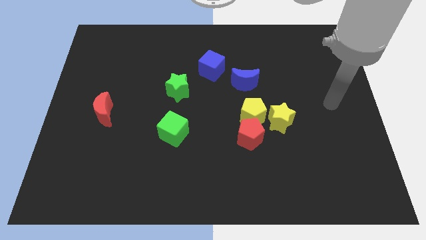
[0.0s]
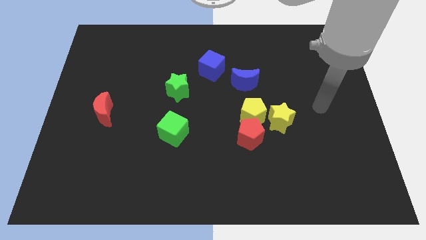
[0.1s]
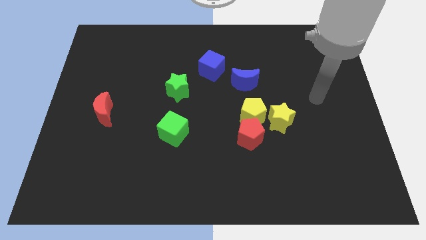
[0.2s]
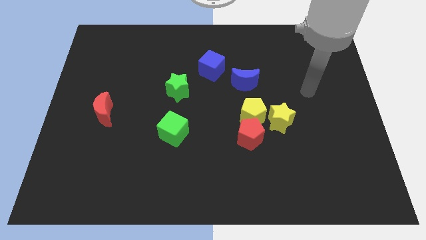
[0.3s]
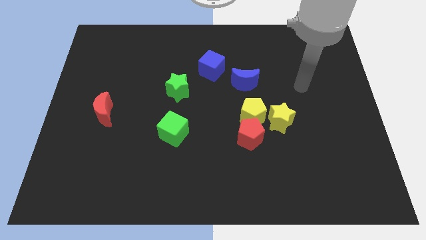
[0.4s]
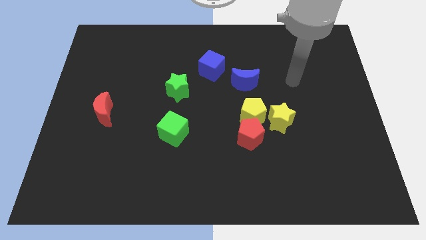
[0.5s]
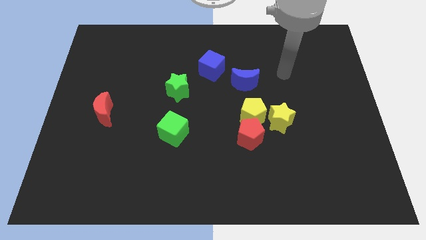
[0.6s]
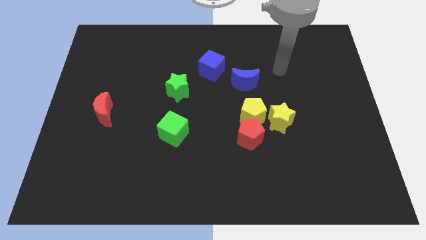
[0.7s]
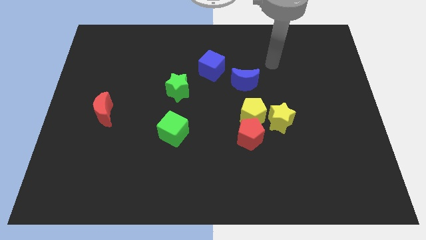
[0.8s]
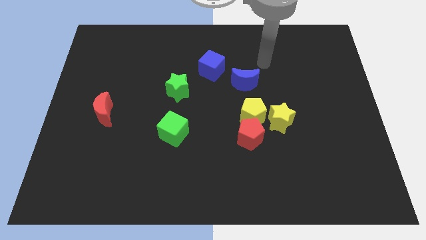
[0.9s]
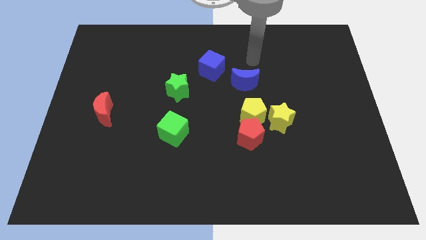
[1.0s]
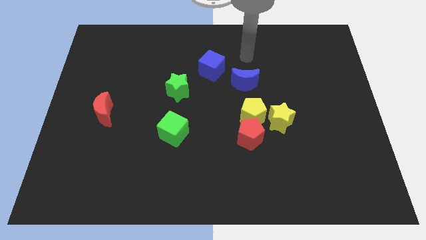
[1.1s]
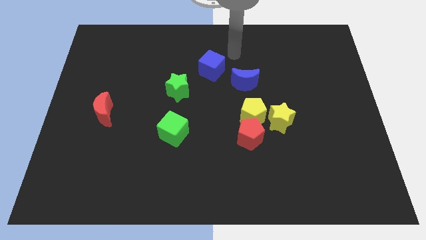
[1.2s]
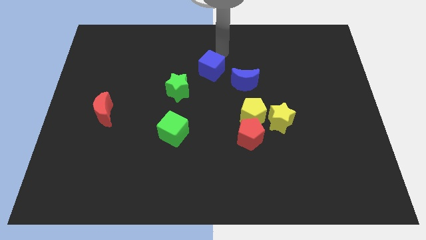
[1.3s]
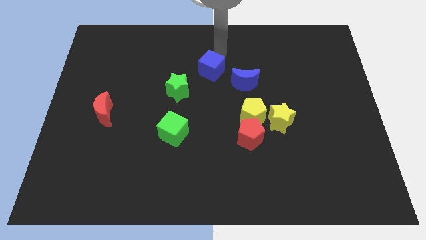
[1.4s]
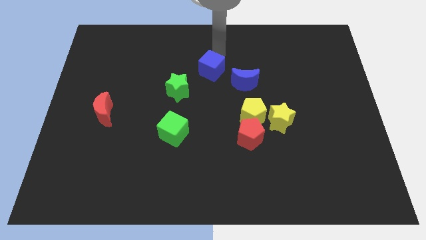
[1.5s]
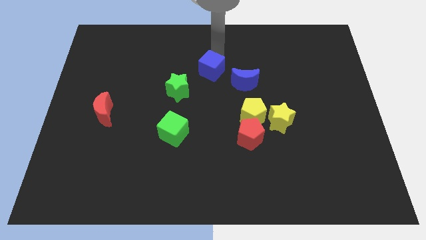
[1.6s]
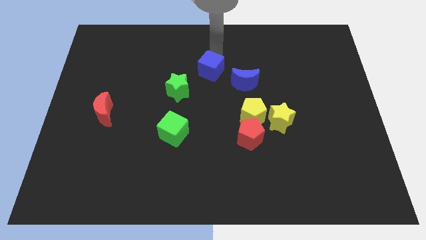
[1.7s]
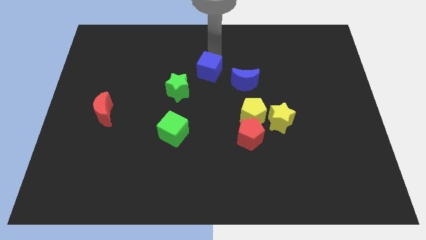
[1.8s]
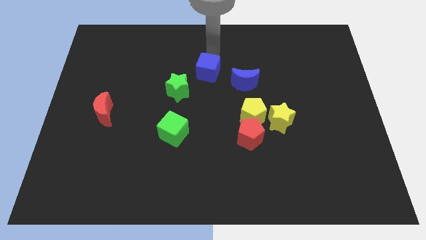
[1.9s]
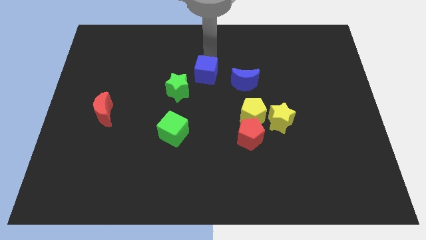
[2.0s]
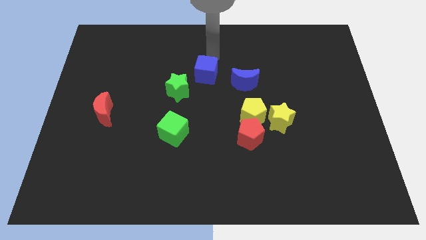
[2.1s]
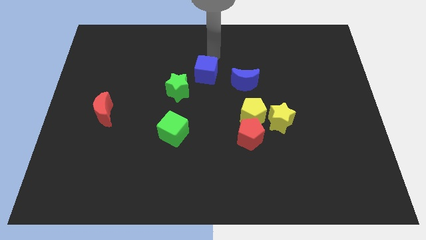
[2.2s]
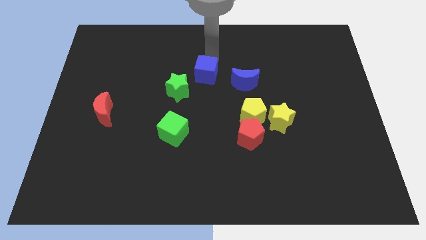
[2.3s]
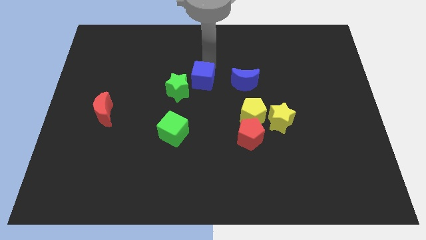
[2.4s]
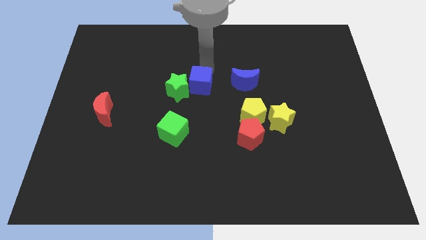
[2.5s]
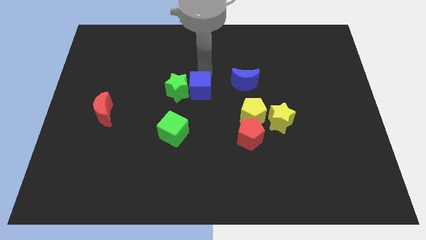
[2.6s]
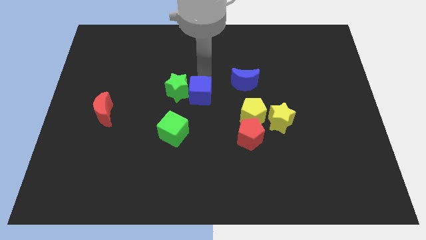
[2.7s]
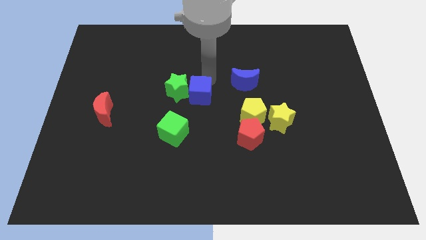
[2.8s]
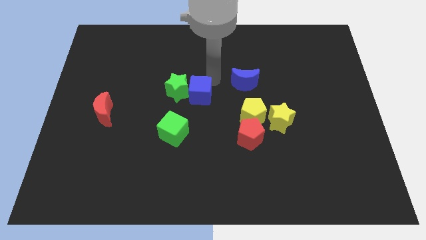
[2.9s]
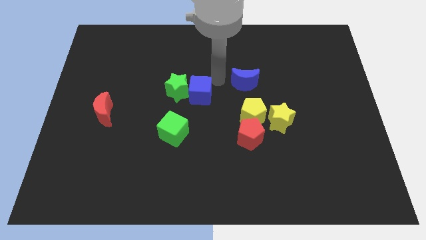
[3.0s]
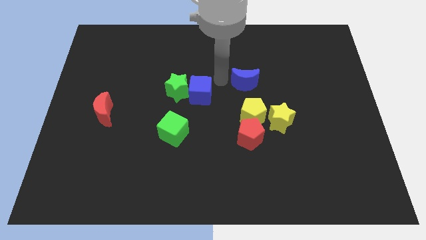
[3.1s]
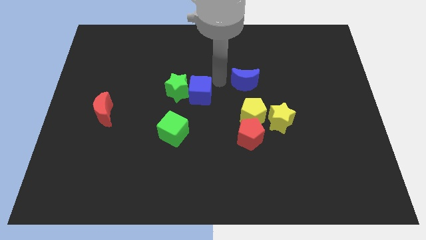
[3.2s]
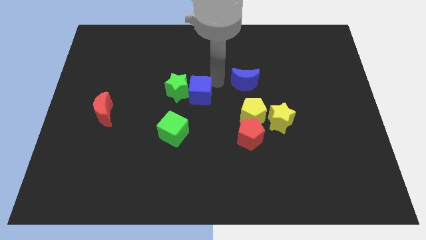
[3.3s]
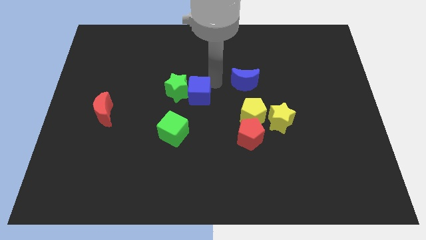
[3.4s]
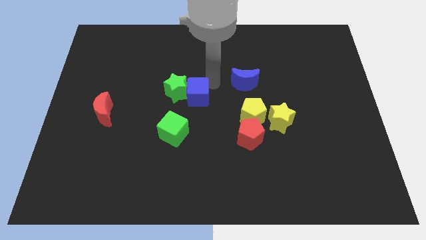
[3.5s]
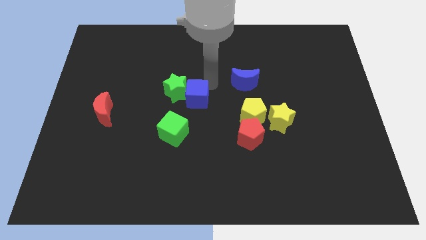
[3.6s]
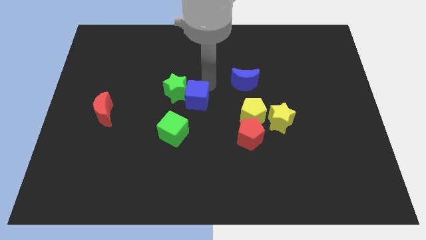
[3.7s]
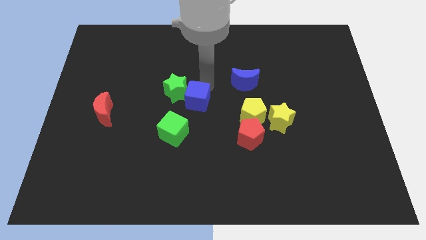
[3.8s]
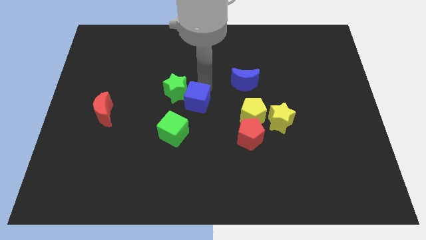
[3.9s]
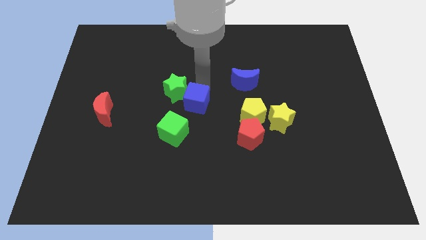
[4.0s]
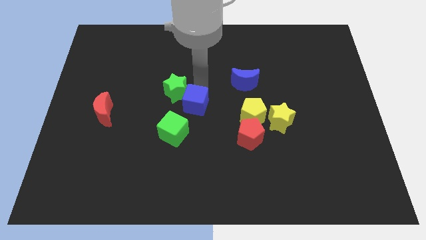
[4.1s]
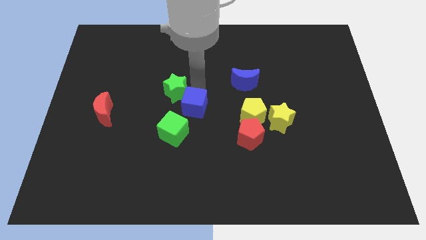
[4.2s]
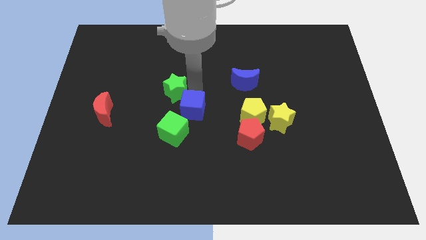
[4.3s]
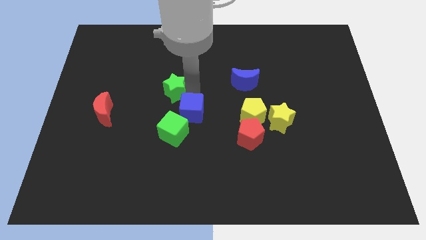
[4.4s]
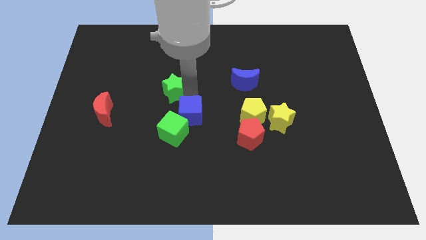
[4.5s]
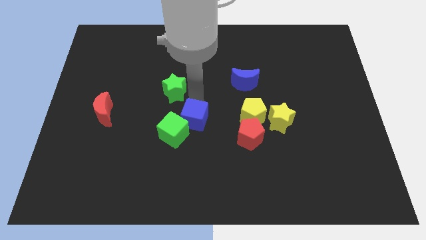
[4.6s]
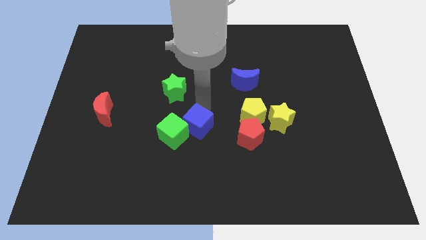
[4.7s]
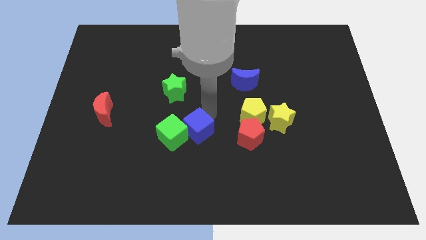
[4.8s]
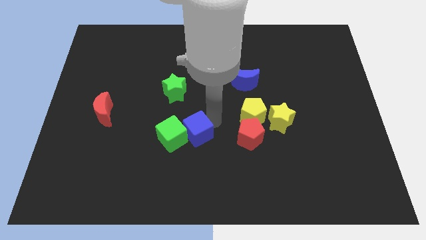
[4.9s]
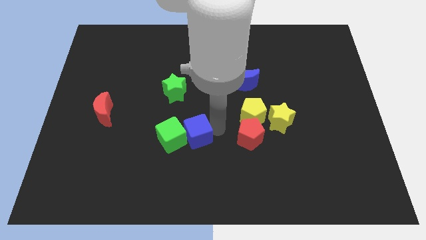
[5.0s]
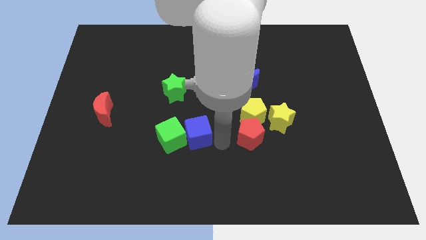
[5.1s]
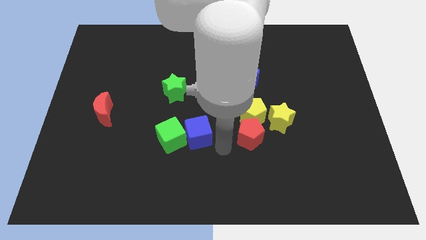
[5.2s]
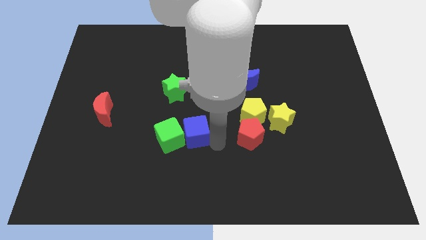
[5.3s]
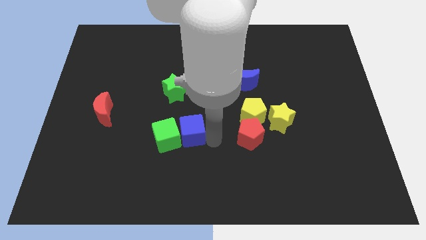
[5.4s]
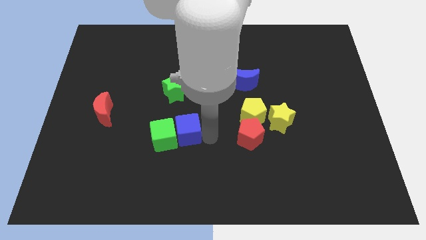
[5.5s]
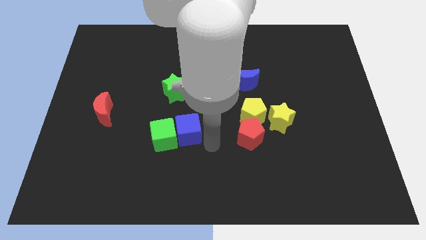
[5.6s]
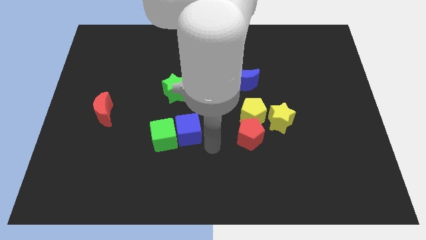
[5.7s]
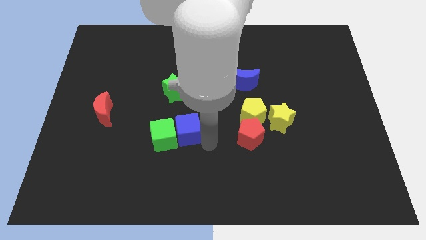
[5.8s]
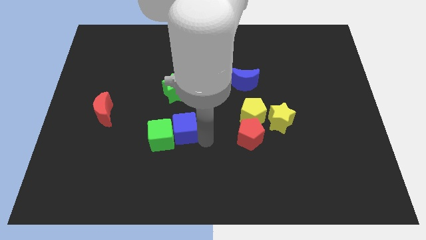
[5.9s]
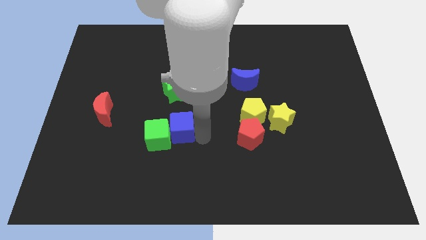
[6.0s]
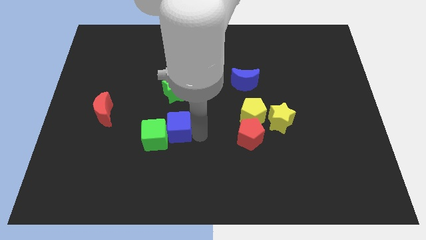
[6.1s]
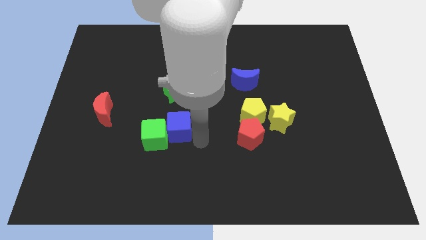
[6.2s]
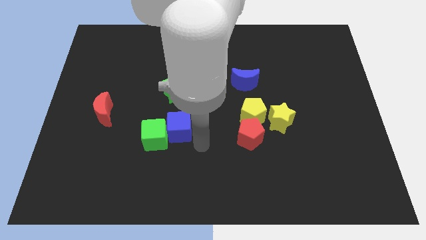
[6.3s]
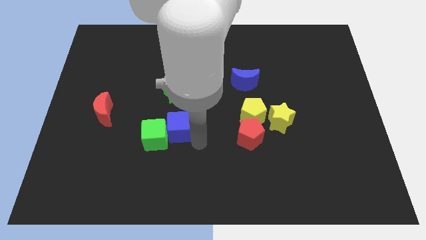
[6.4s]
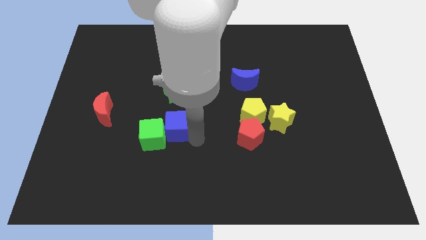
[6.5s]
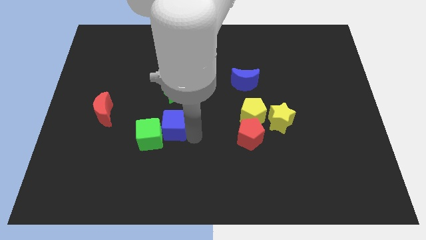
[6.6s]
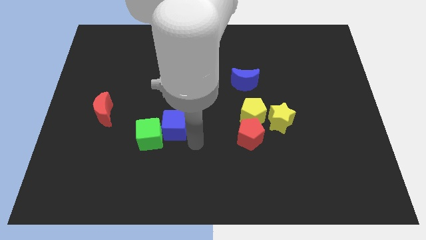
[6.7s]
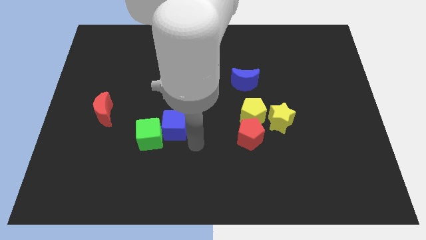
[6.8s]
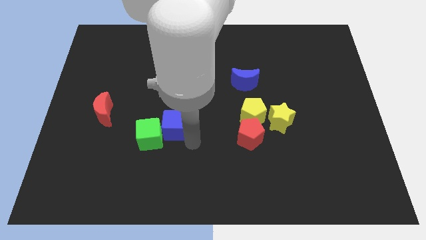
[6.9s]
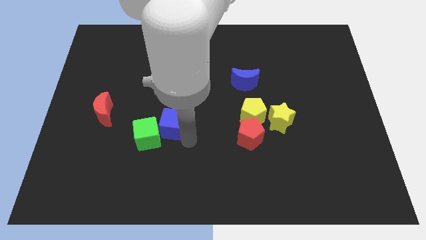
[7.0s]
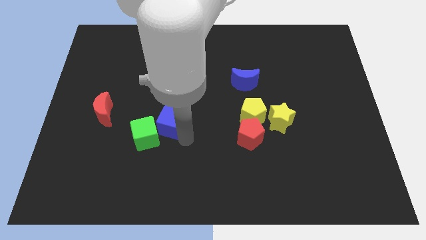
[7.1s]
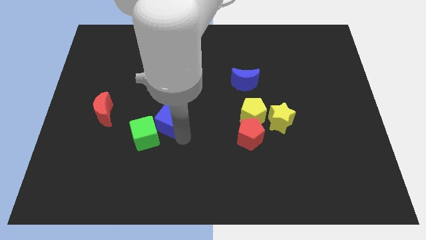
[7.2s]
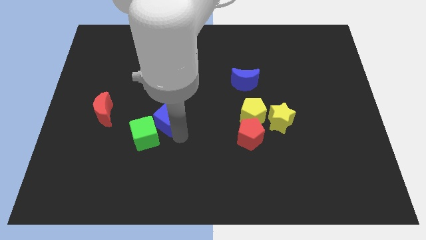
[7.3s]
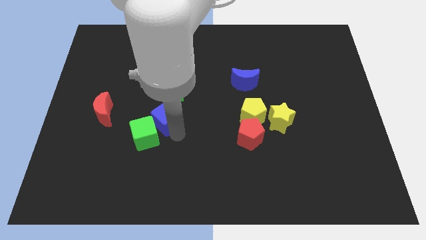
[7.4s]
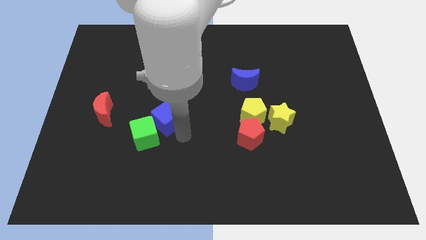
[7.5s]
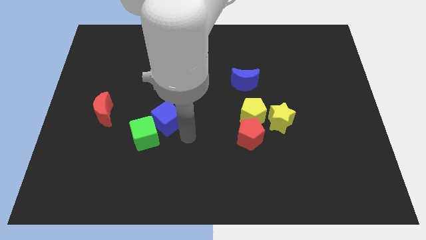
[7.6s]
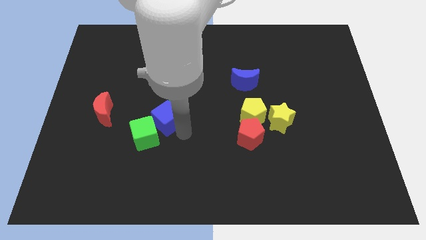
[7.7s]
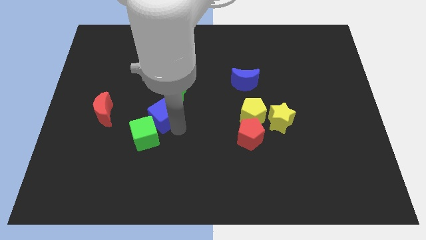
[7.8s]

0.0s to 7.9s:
push the blue cube to the bottom left side of the green star
